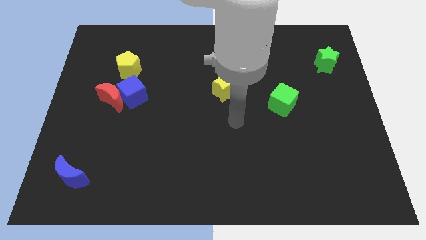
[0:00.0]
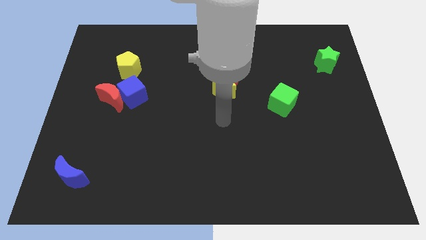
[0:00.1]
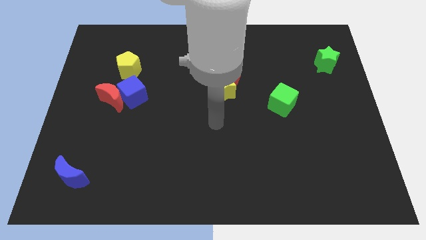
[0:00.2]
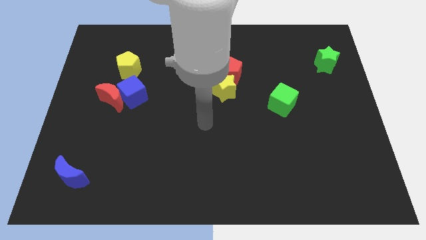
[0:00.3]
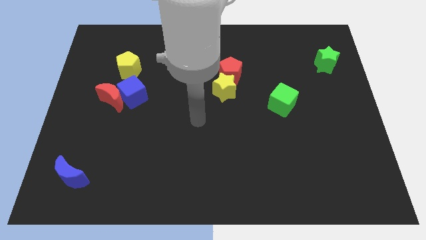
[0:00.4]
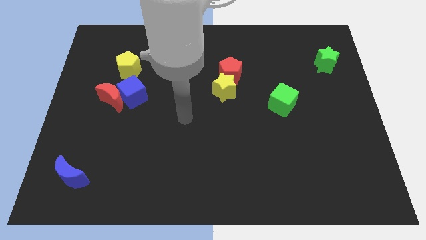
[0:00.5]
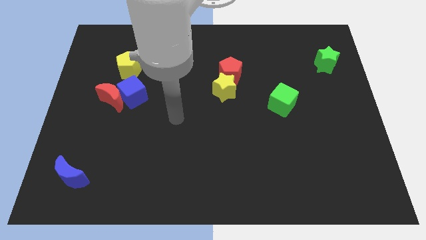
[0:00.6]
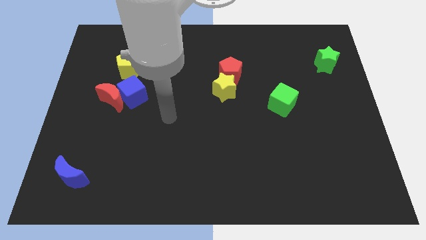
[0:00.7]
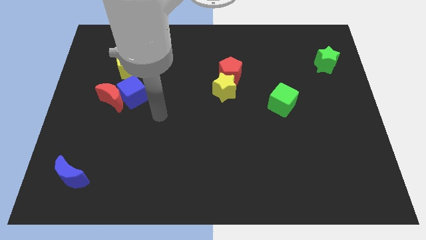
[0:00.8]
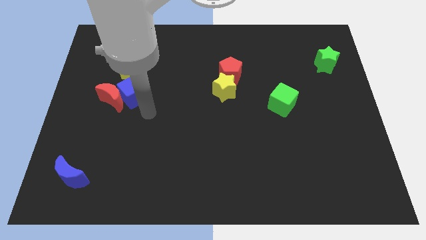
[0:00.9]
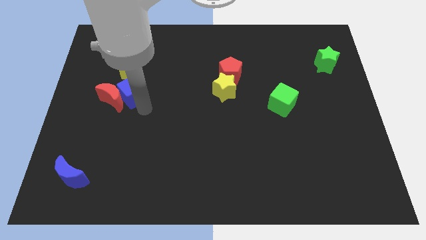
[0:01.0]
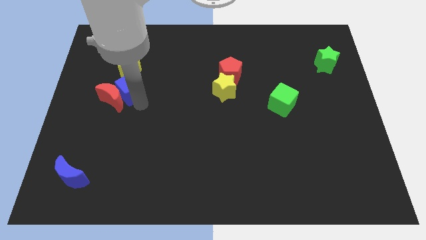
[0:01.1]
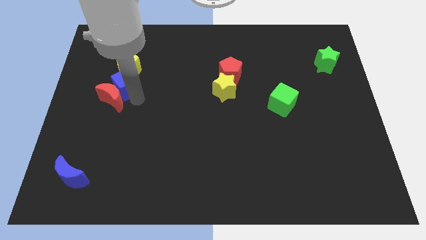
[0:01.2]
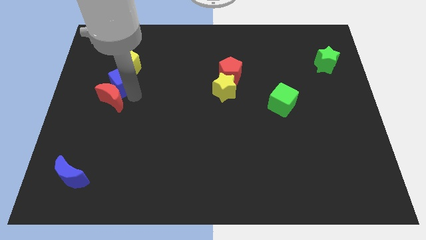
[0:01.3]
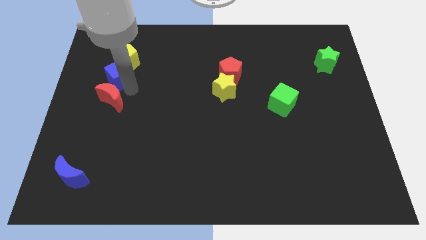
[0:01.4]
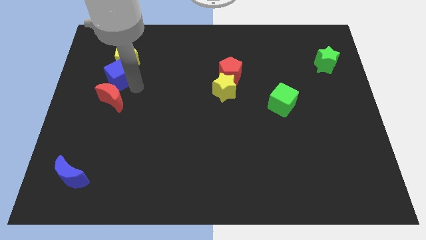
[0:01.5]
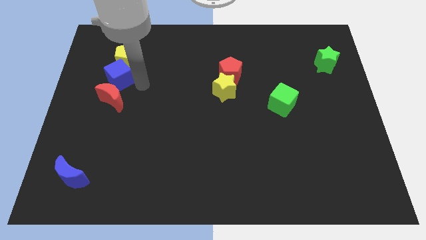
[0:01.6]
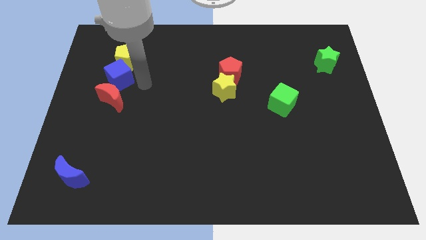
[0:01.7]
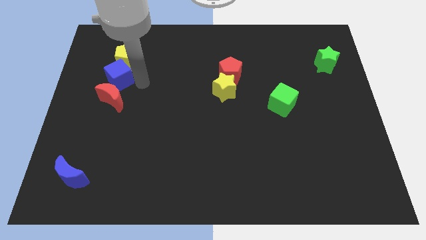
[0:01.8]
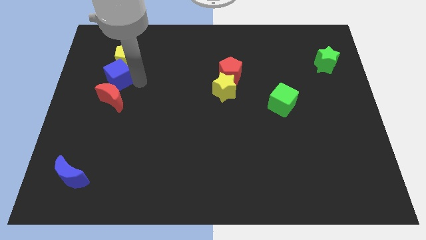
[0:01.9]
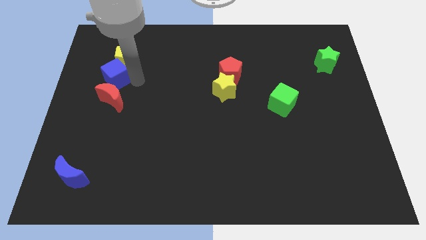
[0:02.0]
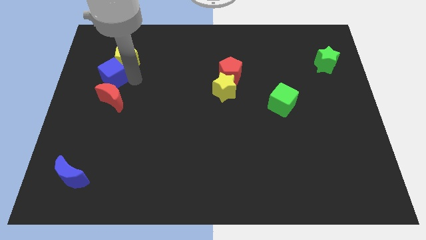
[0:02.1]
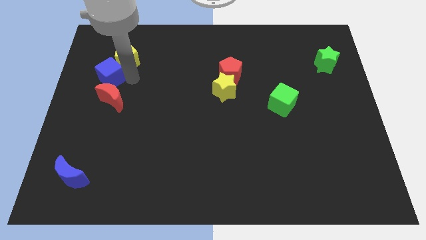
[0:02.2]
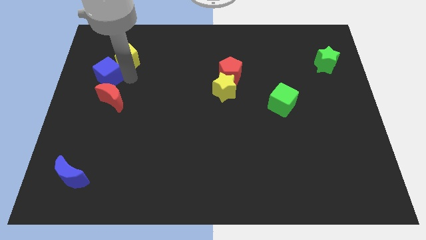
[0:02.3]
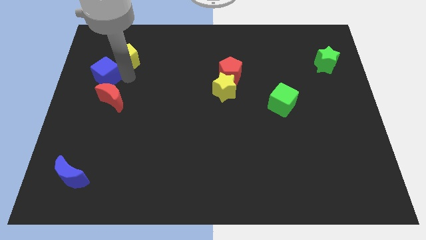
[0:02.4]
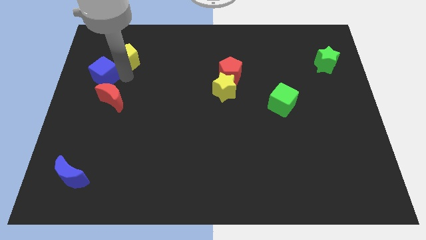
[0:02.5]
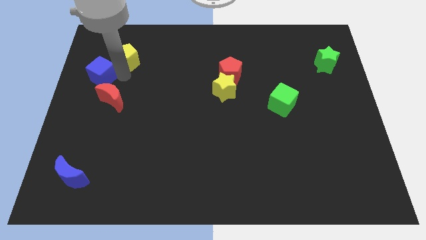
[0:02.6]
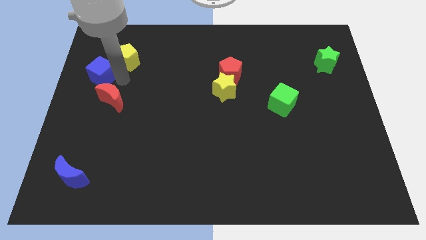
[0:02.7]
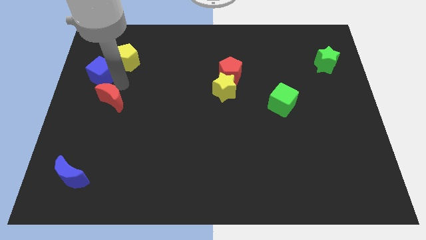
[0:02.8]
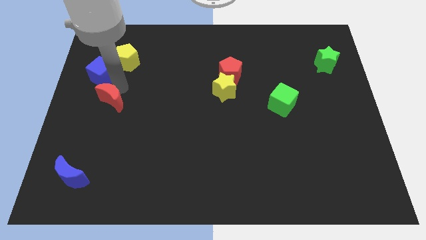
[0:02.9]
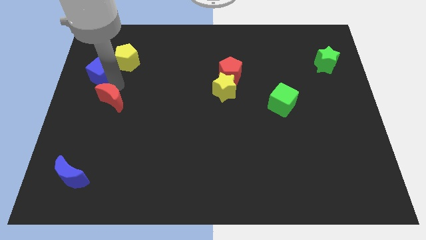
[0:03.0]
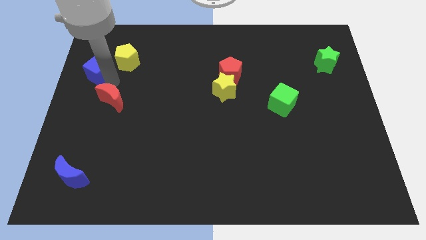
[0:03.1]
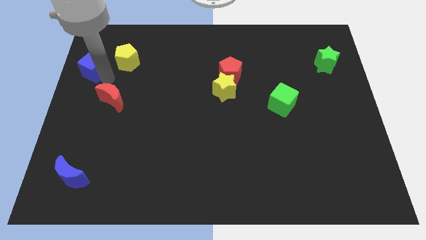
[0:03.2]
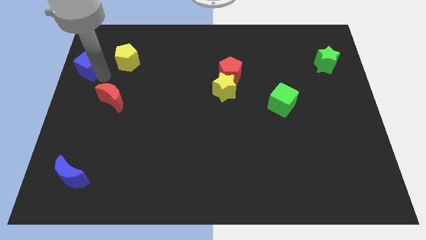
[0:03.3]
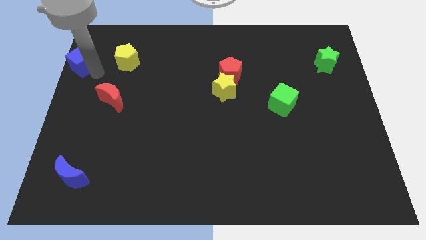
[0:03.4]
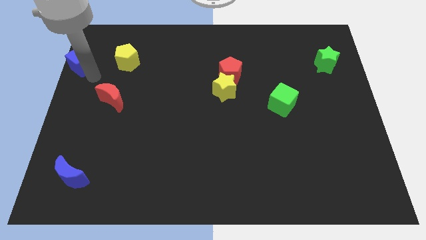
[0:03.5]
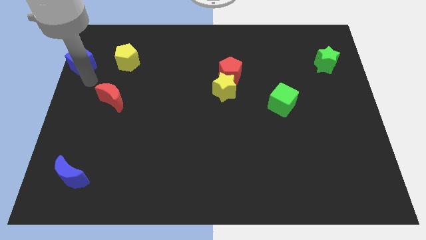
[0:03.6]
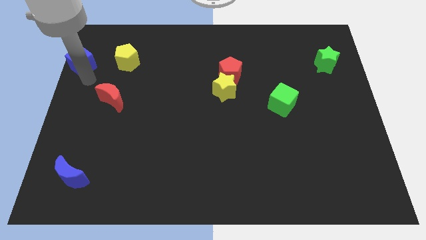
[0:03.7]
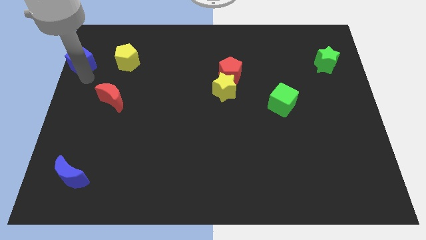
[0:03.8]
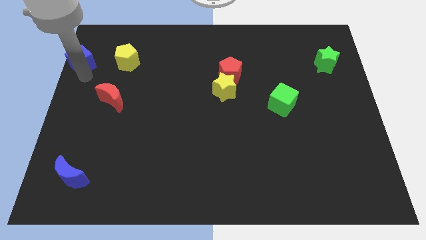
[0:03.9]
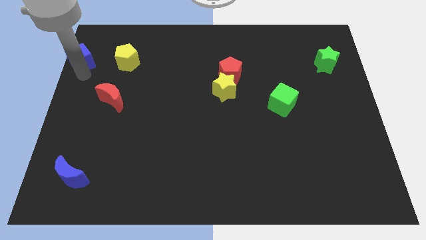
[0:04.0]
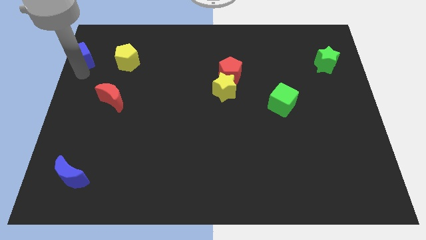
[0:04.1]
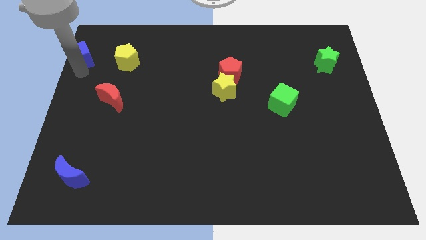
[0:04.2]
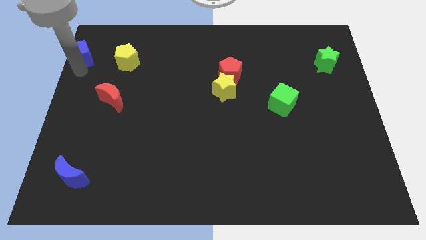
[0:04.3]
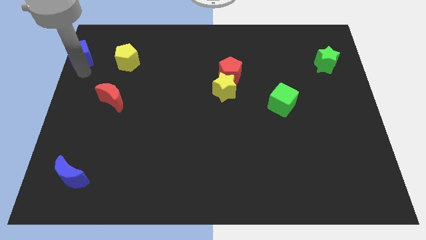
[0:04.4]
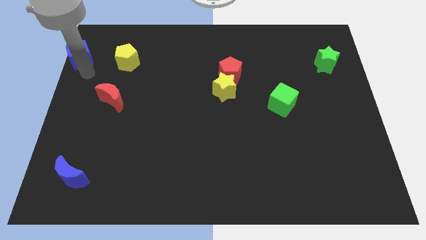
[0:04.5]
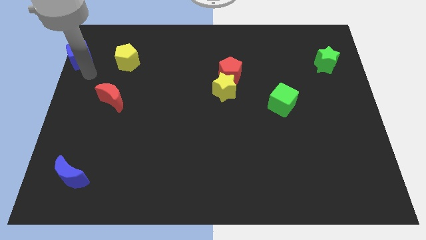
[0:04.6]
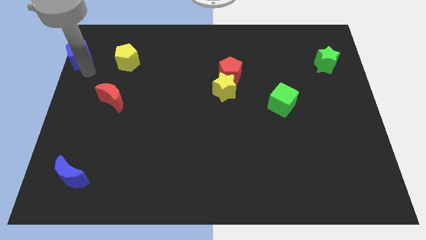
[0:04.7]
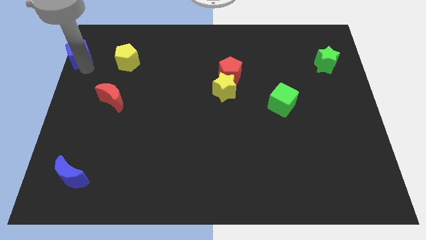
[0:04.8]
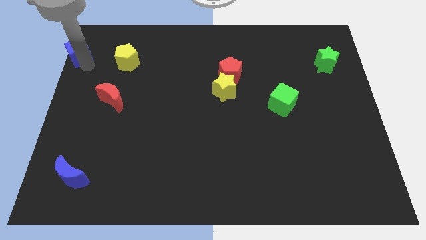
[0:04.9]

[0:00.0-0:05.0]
slide the blue cube to the top left

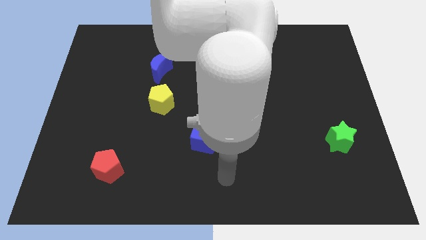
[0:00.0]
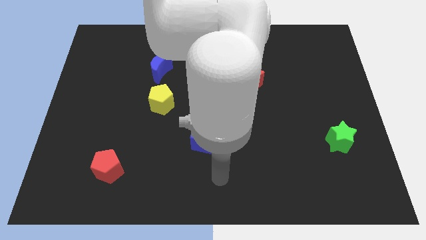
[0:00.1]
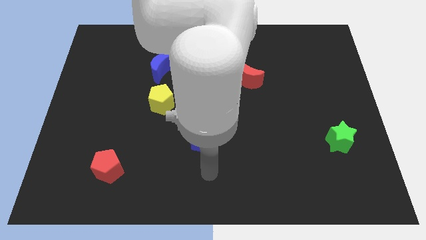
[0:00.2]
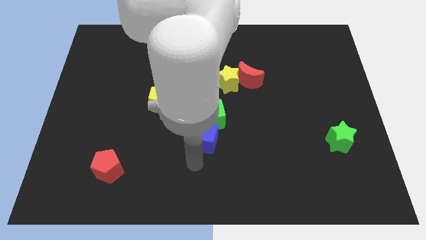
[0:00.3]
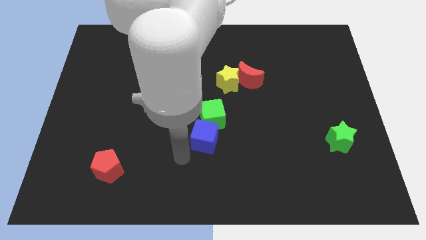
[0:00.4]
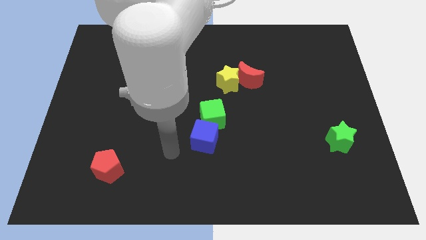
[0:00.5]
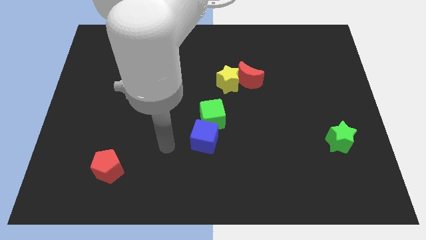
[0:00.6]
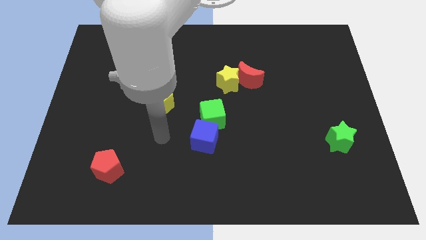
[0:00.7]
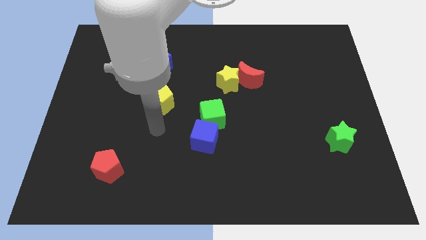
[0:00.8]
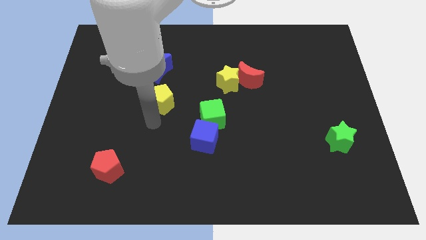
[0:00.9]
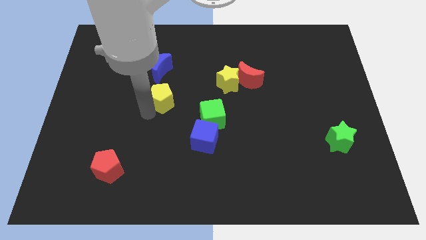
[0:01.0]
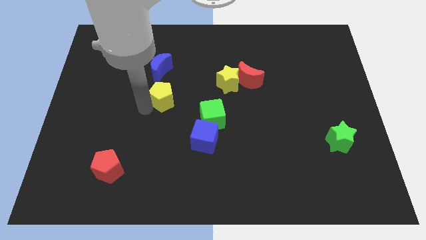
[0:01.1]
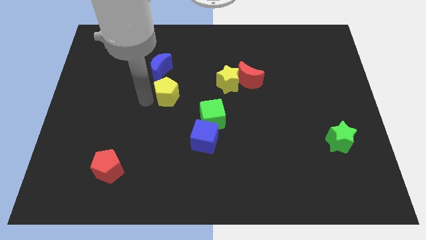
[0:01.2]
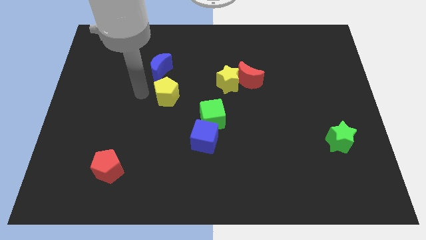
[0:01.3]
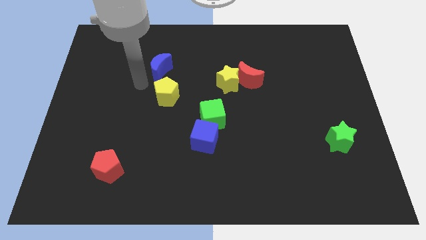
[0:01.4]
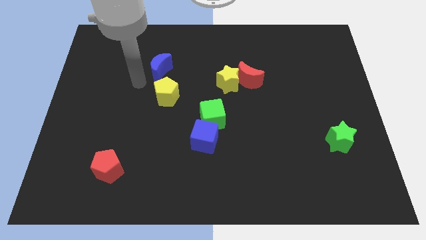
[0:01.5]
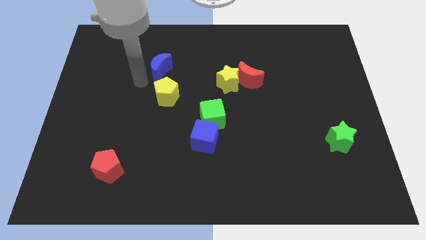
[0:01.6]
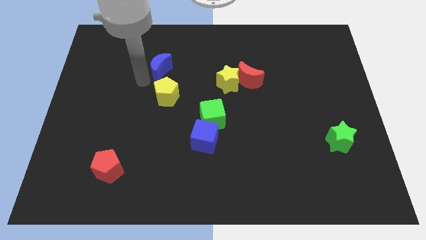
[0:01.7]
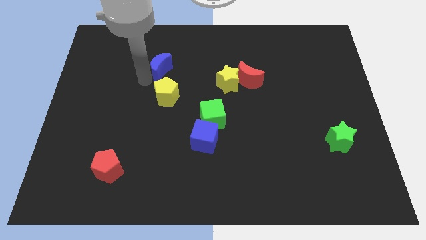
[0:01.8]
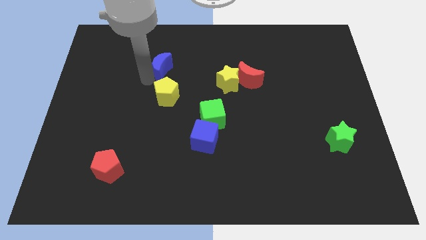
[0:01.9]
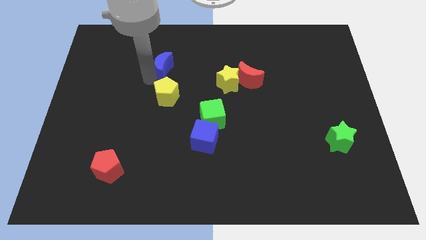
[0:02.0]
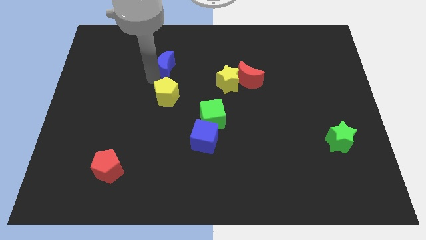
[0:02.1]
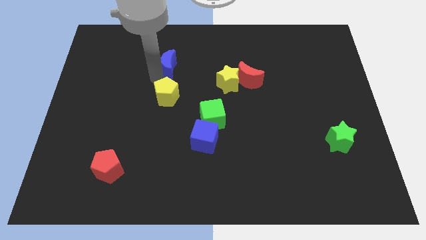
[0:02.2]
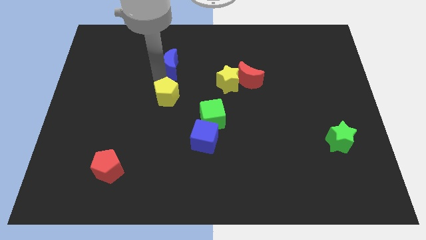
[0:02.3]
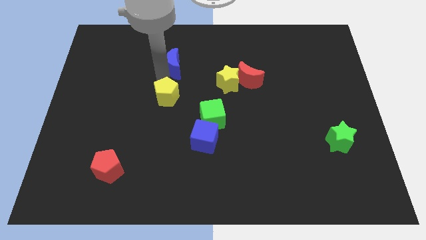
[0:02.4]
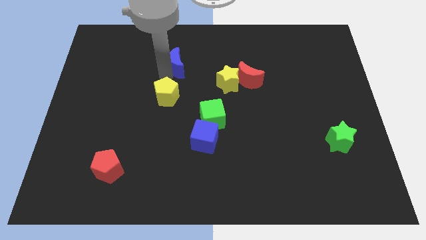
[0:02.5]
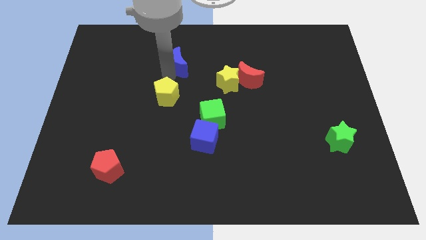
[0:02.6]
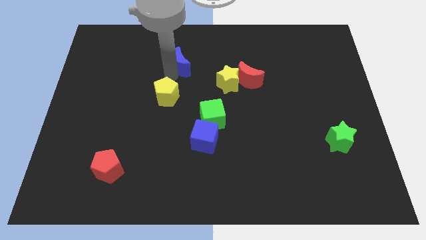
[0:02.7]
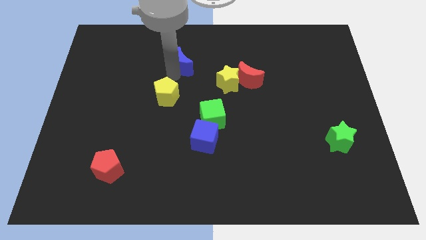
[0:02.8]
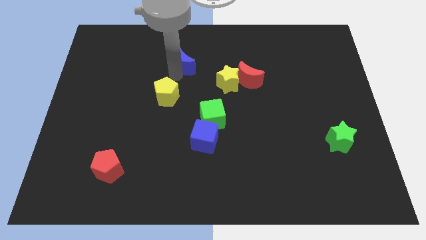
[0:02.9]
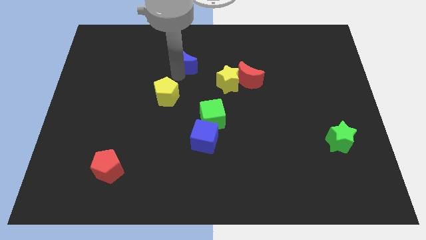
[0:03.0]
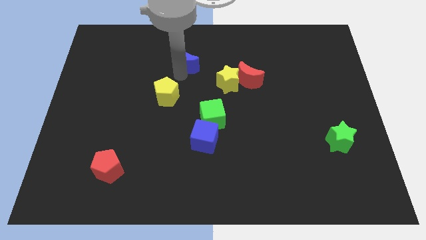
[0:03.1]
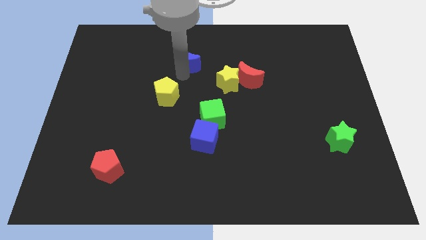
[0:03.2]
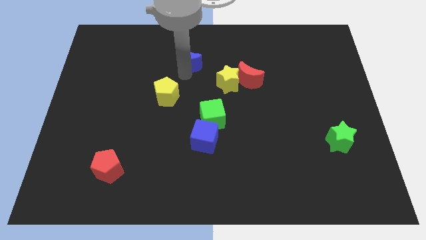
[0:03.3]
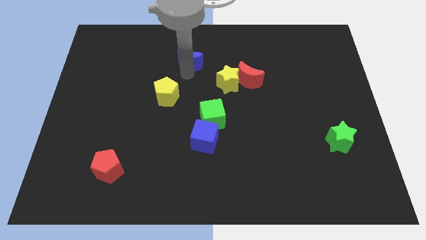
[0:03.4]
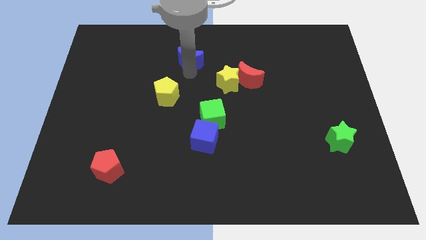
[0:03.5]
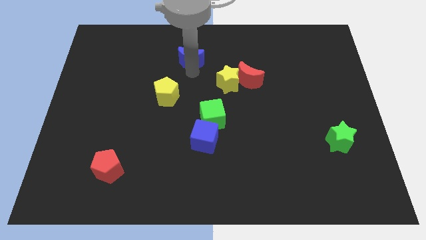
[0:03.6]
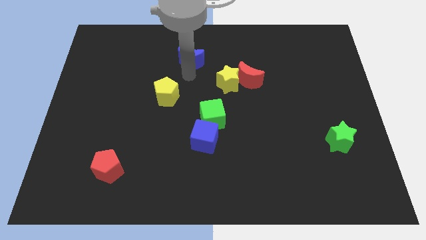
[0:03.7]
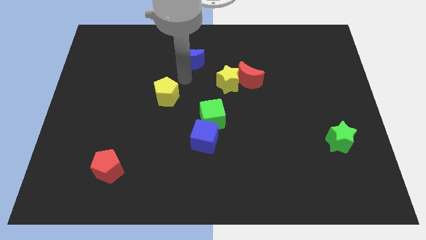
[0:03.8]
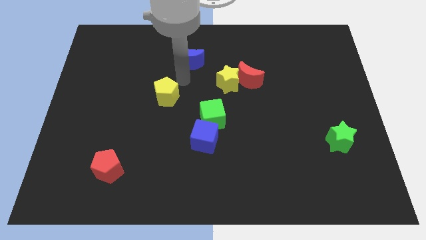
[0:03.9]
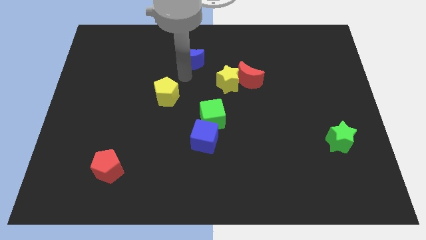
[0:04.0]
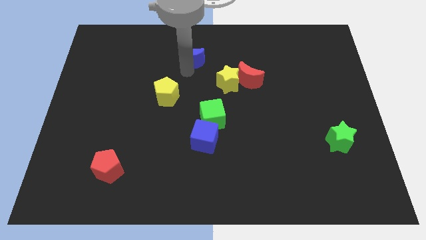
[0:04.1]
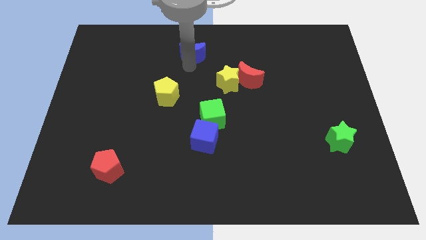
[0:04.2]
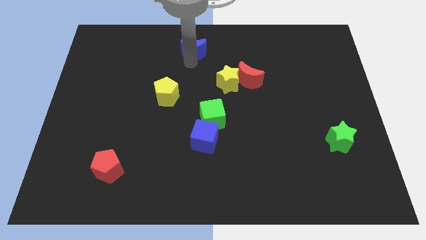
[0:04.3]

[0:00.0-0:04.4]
slide the blue moon to the top
